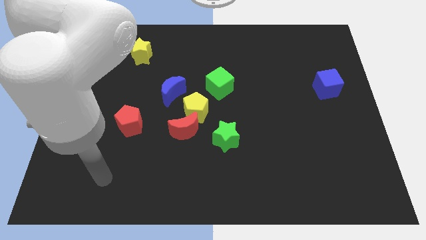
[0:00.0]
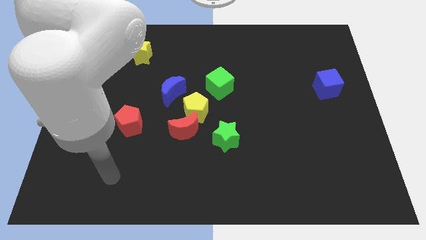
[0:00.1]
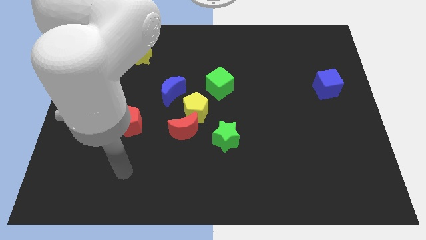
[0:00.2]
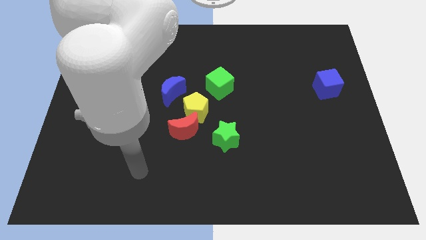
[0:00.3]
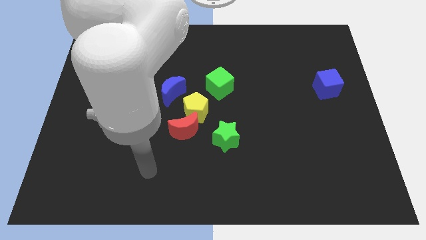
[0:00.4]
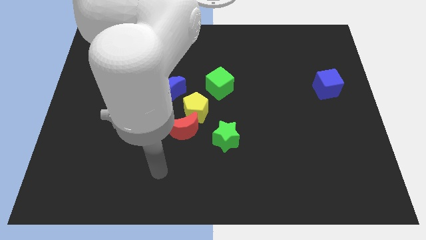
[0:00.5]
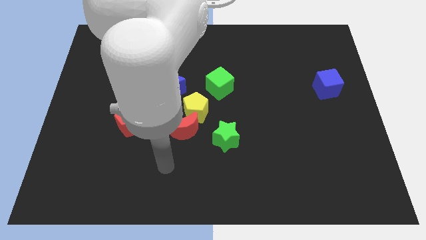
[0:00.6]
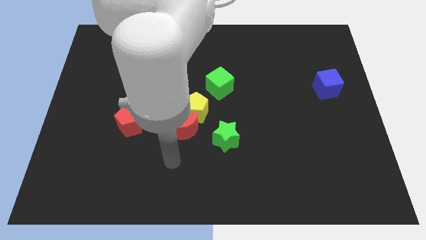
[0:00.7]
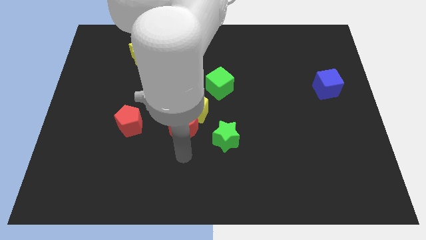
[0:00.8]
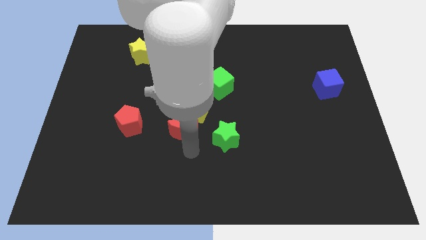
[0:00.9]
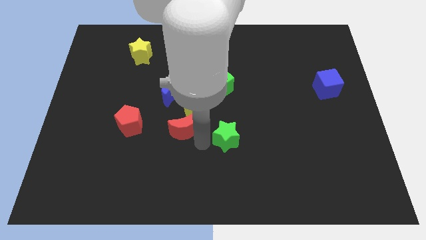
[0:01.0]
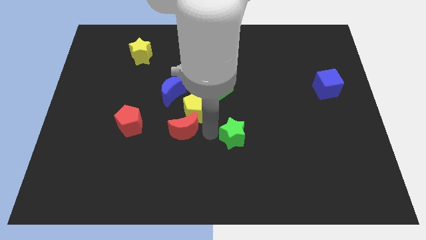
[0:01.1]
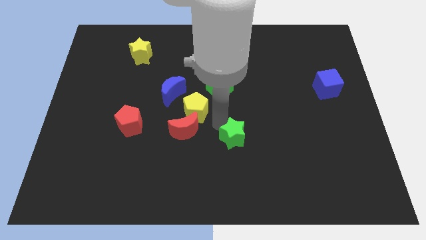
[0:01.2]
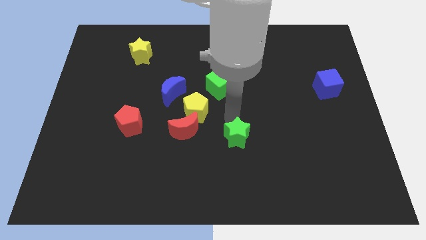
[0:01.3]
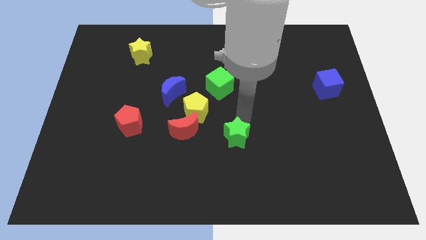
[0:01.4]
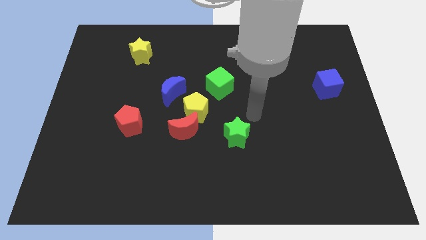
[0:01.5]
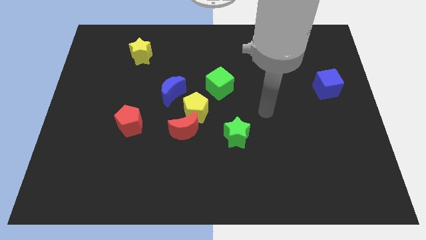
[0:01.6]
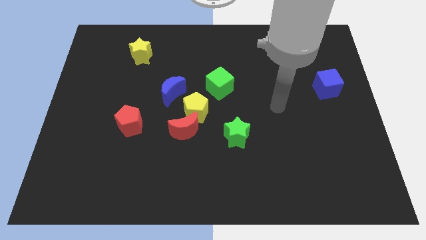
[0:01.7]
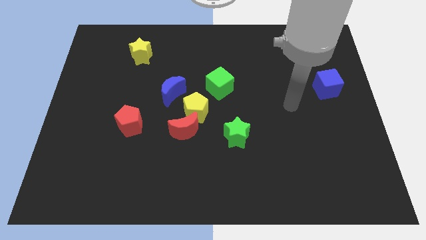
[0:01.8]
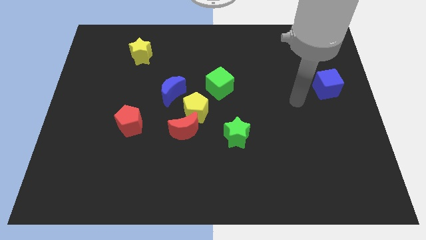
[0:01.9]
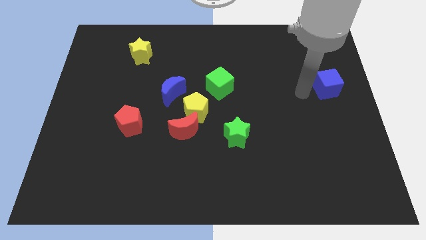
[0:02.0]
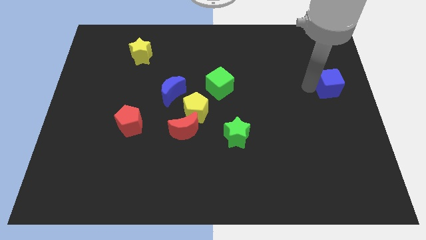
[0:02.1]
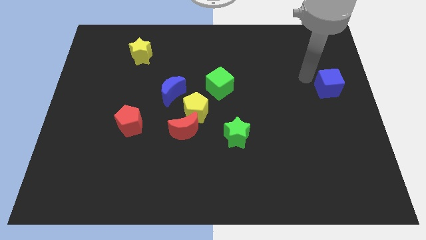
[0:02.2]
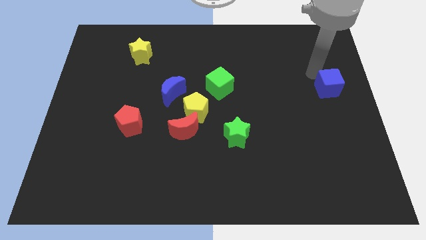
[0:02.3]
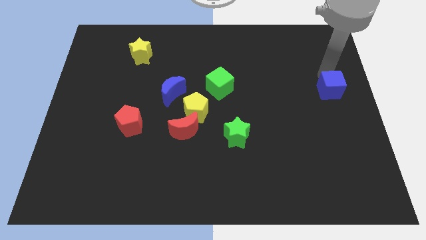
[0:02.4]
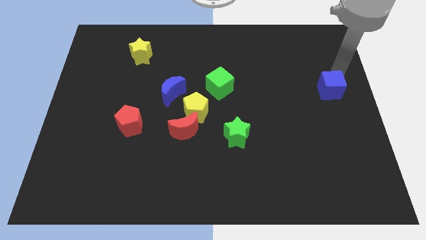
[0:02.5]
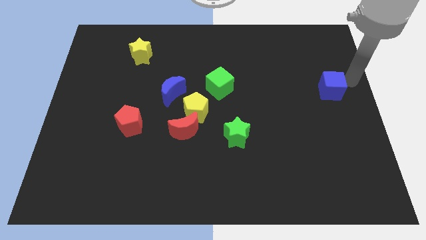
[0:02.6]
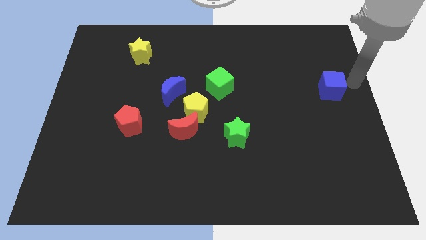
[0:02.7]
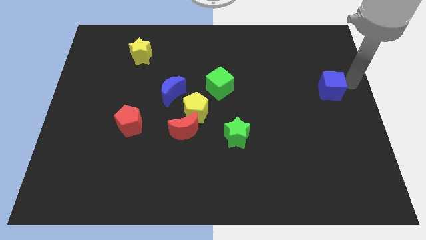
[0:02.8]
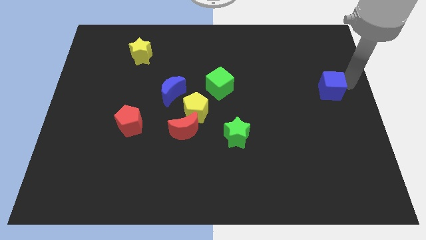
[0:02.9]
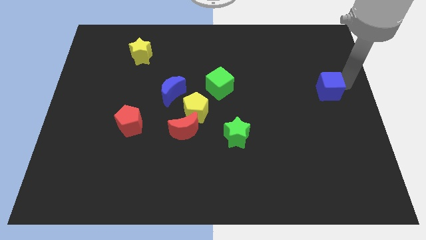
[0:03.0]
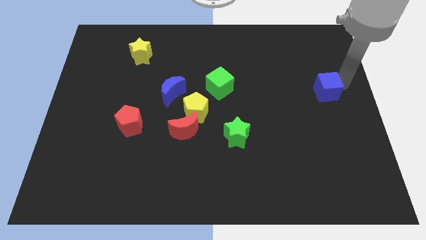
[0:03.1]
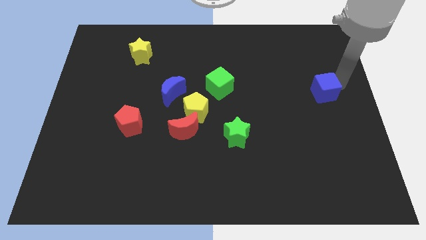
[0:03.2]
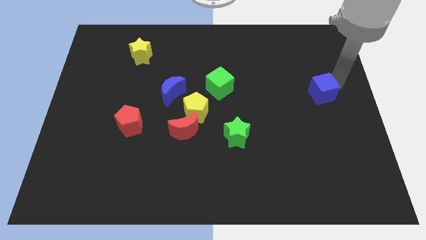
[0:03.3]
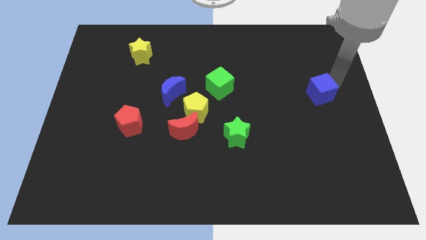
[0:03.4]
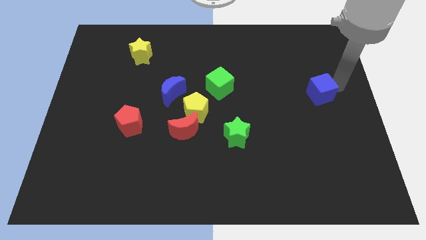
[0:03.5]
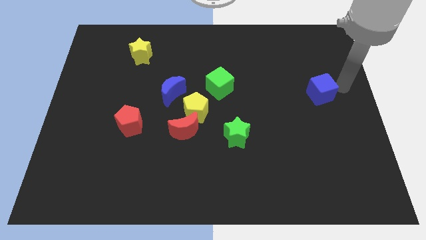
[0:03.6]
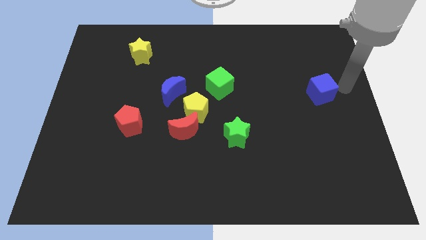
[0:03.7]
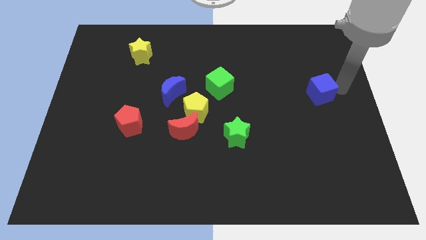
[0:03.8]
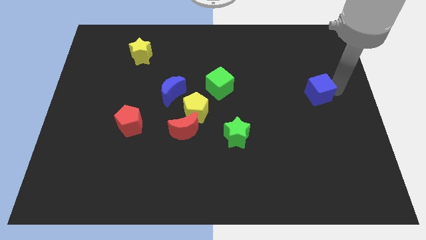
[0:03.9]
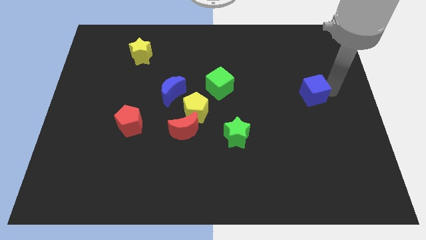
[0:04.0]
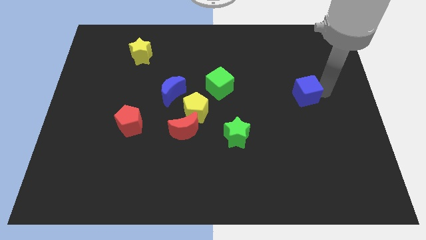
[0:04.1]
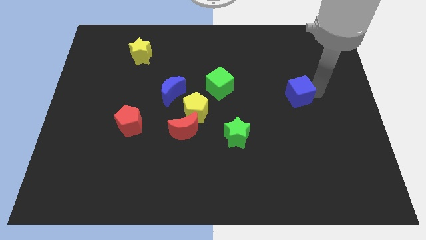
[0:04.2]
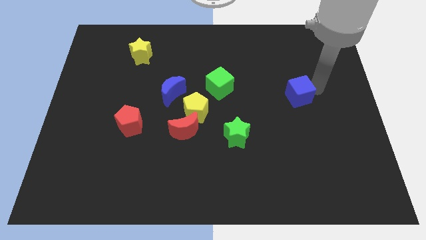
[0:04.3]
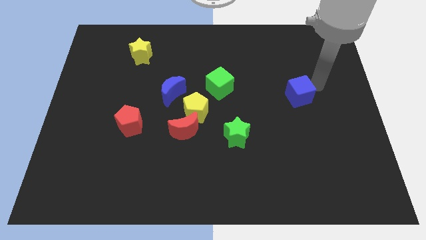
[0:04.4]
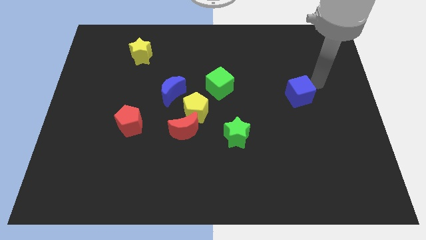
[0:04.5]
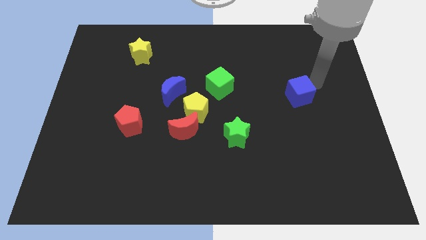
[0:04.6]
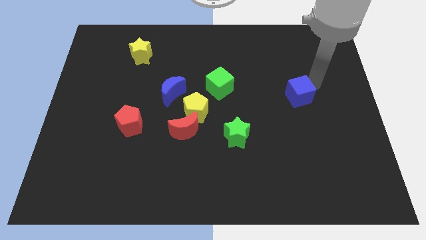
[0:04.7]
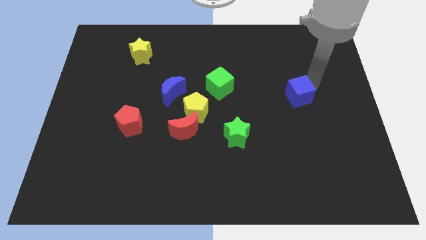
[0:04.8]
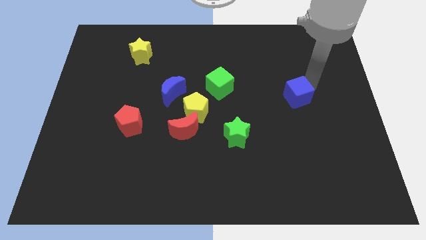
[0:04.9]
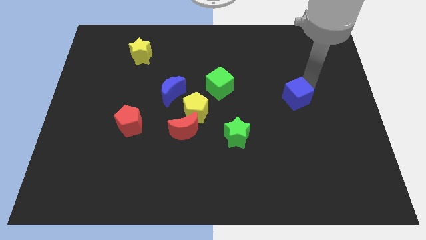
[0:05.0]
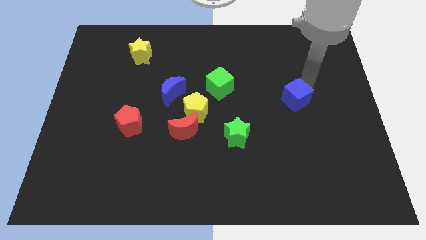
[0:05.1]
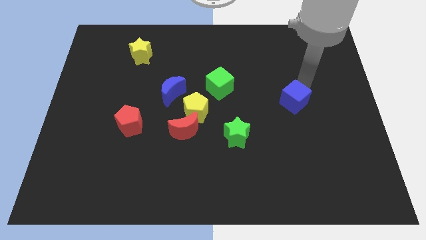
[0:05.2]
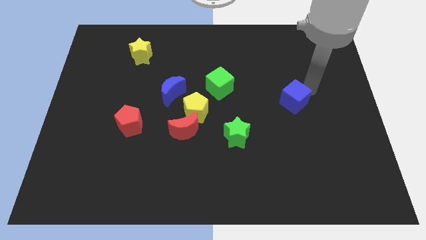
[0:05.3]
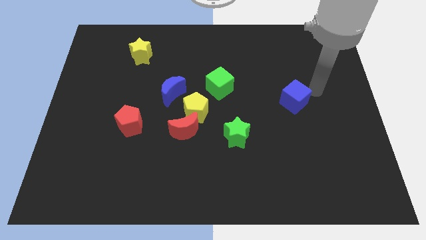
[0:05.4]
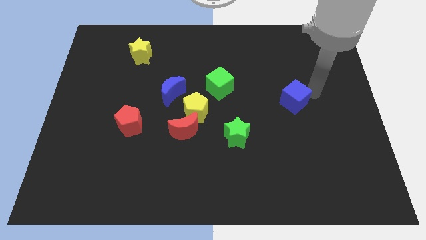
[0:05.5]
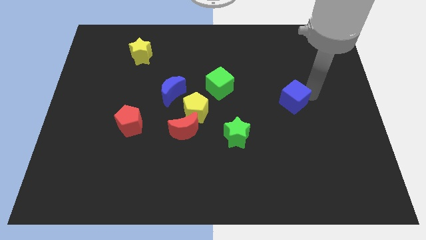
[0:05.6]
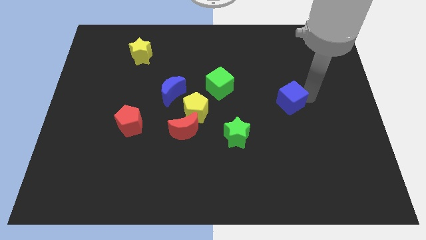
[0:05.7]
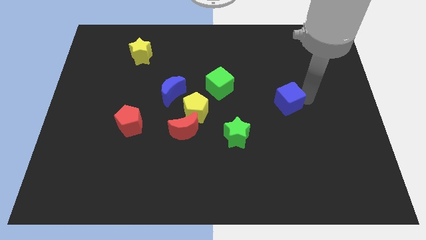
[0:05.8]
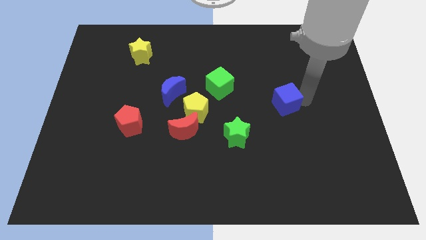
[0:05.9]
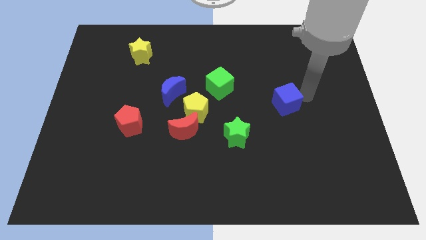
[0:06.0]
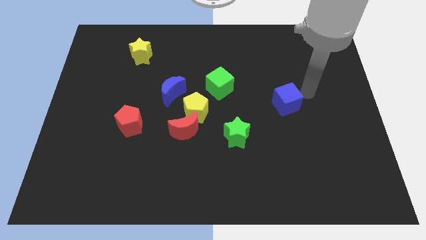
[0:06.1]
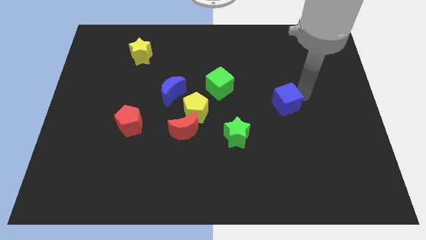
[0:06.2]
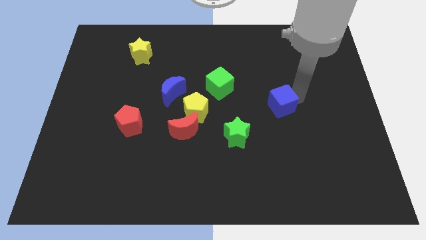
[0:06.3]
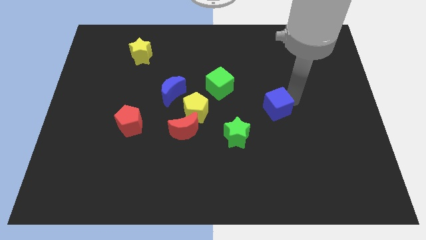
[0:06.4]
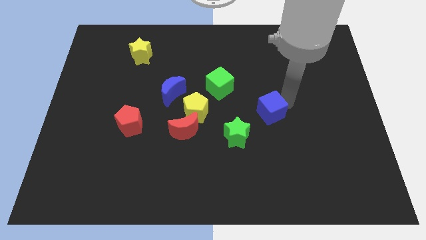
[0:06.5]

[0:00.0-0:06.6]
move the blue cube diagonally up and to the right of the green star
